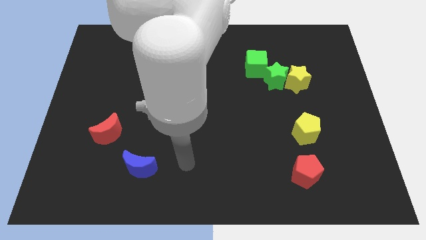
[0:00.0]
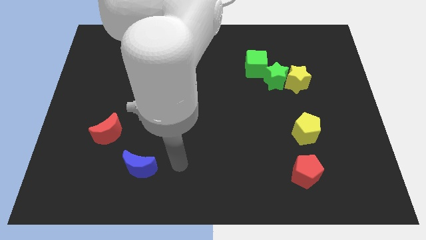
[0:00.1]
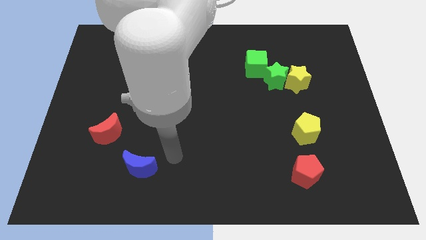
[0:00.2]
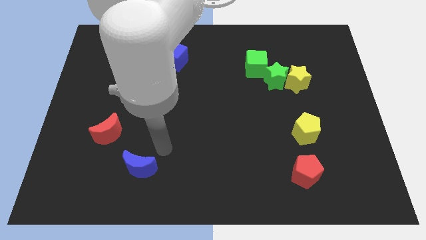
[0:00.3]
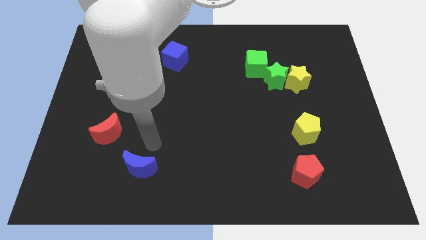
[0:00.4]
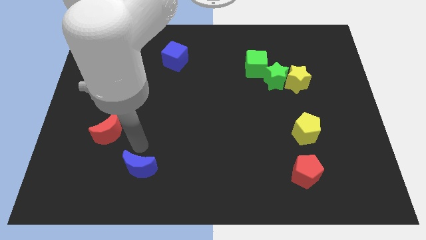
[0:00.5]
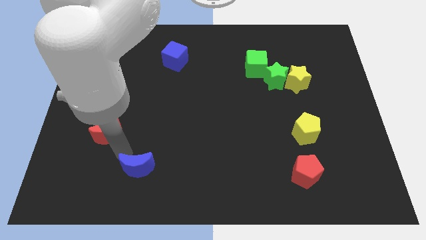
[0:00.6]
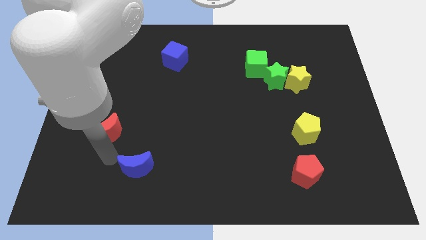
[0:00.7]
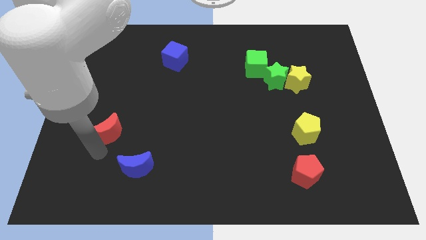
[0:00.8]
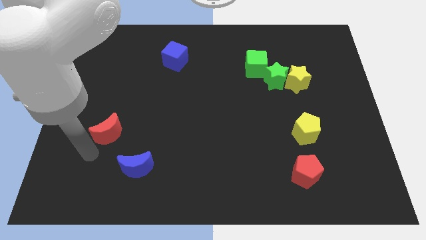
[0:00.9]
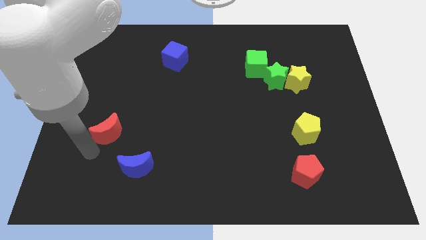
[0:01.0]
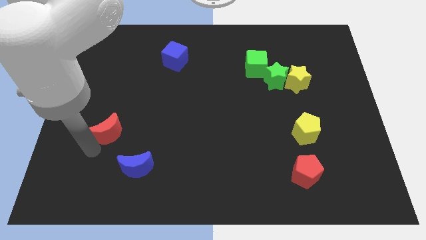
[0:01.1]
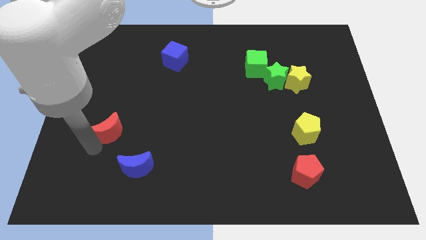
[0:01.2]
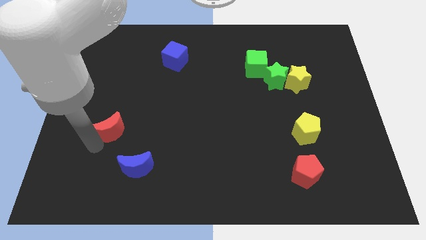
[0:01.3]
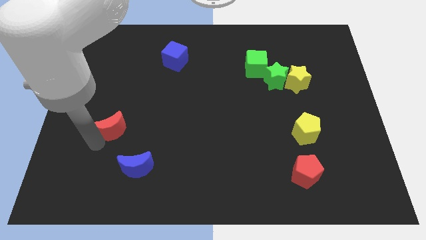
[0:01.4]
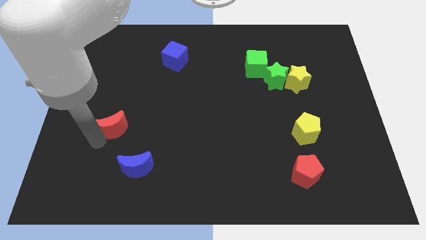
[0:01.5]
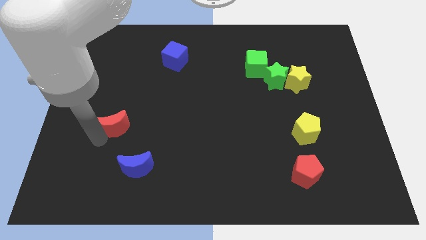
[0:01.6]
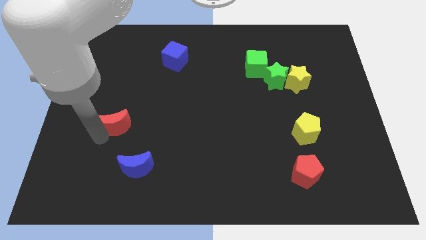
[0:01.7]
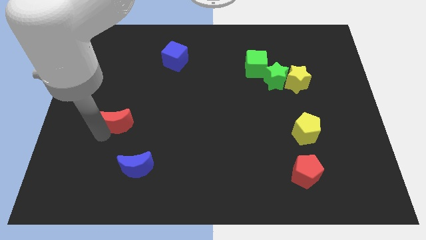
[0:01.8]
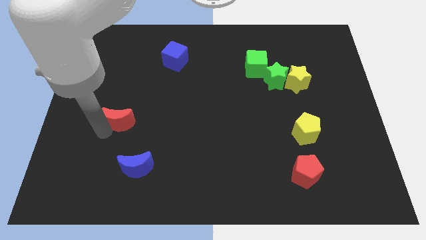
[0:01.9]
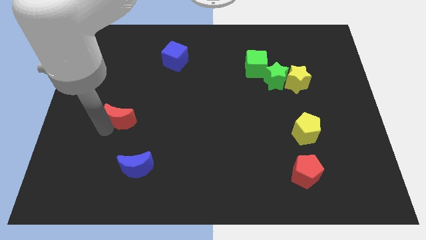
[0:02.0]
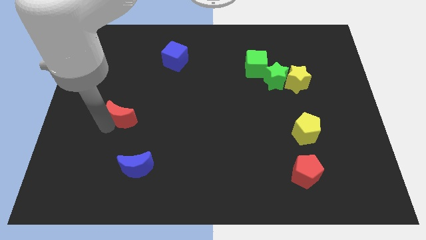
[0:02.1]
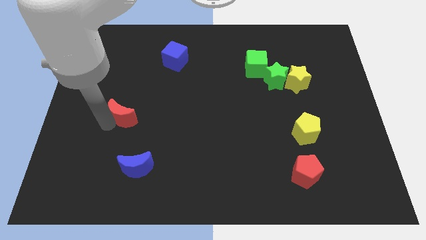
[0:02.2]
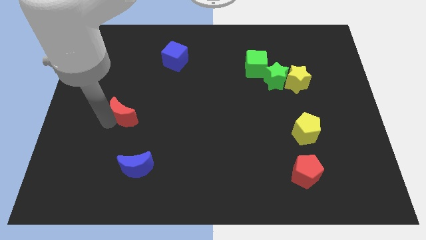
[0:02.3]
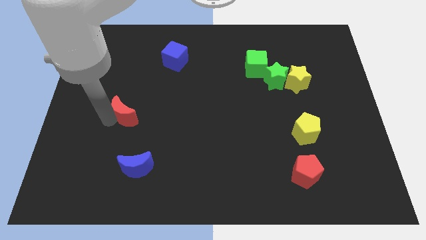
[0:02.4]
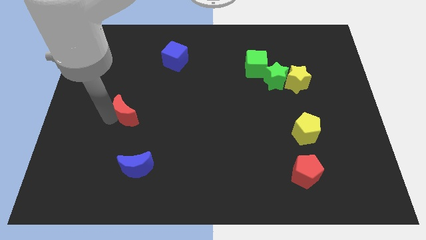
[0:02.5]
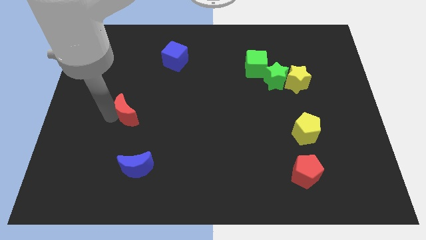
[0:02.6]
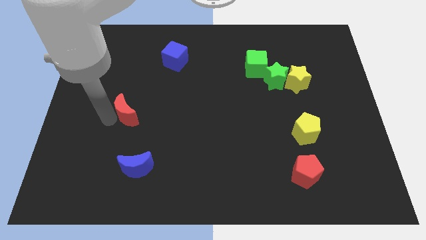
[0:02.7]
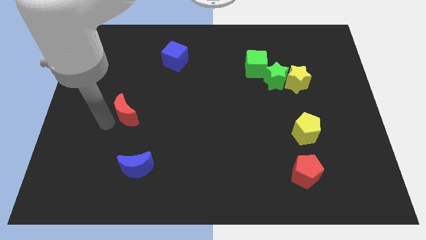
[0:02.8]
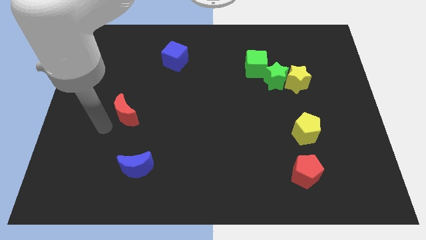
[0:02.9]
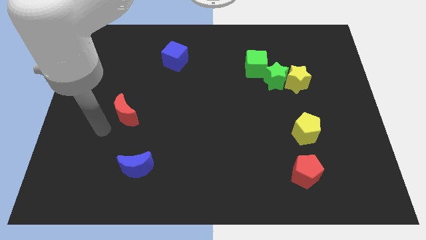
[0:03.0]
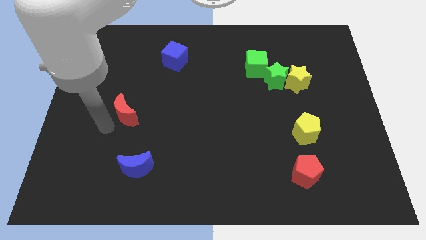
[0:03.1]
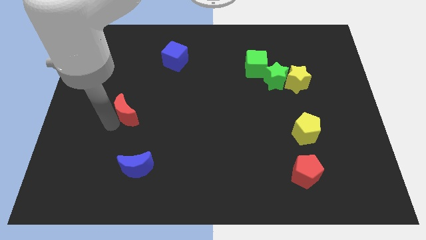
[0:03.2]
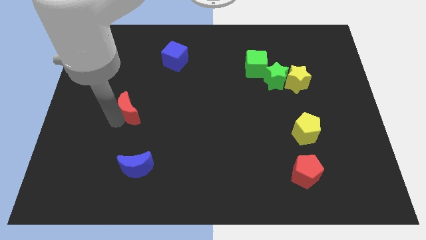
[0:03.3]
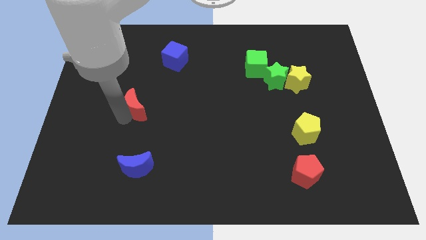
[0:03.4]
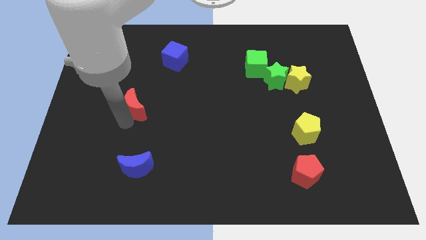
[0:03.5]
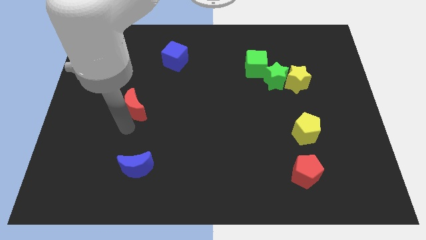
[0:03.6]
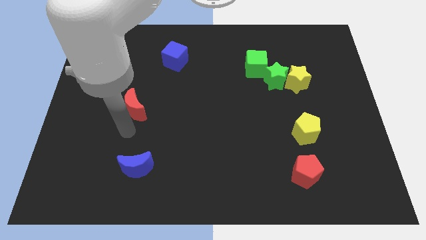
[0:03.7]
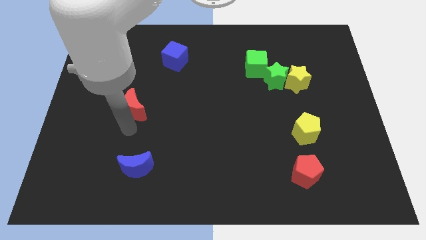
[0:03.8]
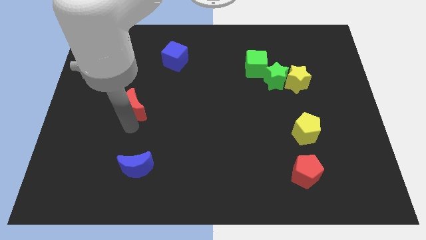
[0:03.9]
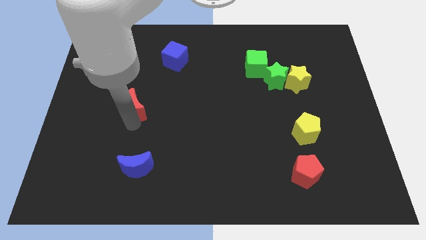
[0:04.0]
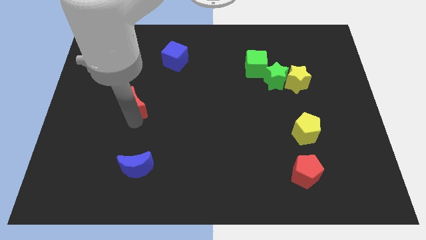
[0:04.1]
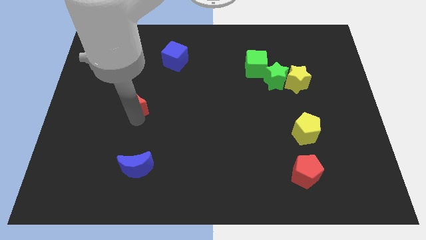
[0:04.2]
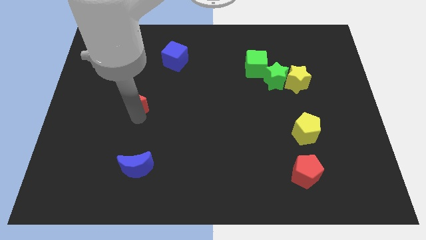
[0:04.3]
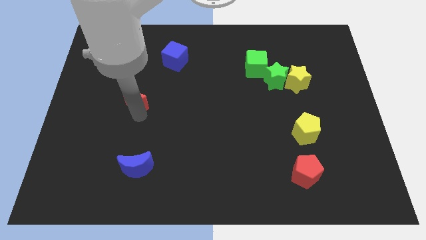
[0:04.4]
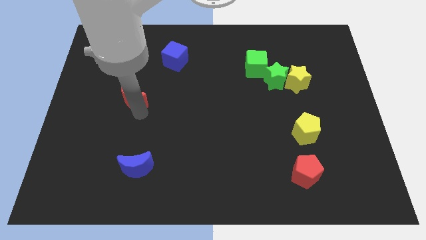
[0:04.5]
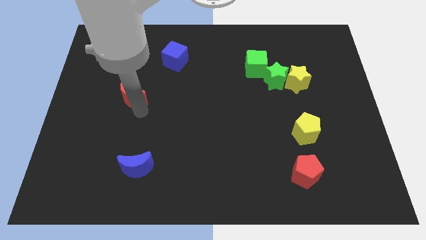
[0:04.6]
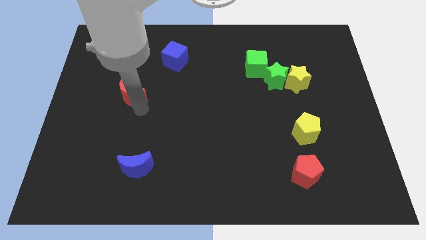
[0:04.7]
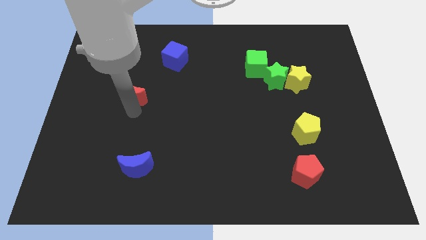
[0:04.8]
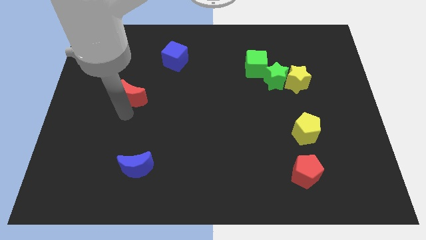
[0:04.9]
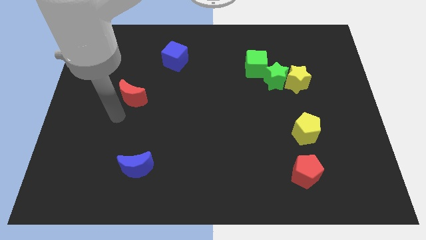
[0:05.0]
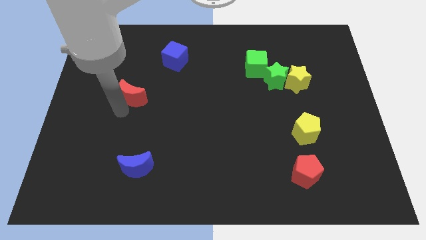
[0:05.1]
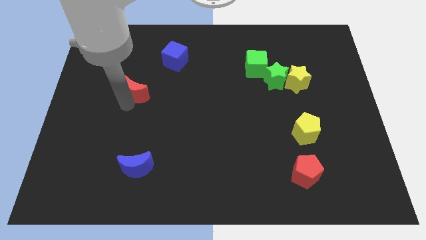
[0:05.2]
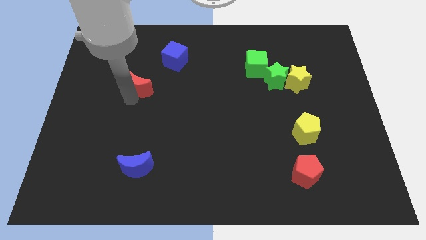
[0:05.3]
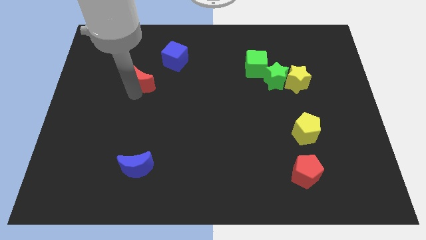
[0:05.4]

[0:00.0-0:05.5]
slide the red moon to the bottom left of the blue cube

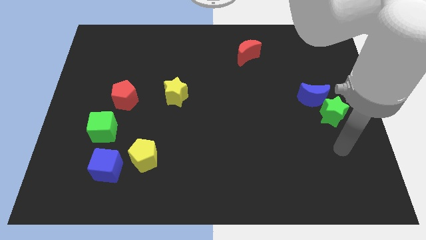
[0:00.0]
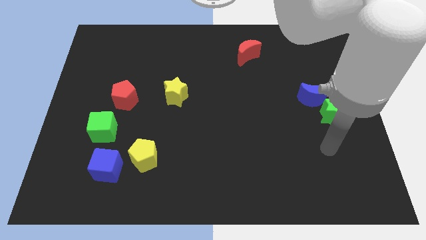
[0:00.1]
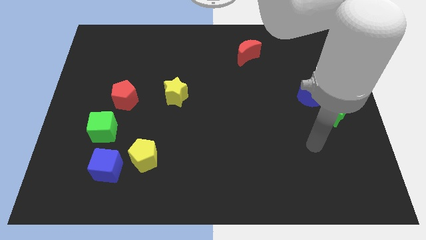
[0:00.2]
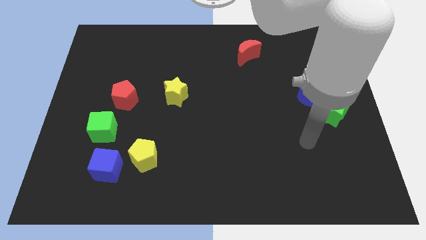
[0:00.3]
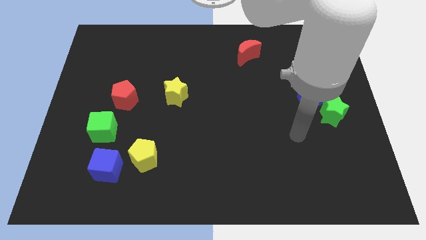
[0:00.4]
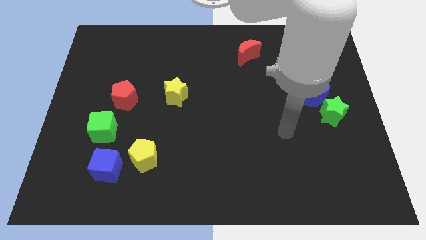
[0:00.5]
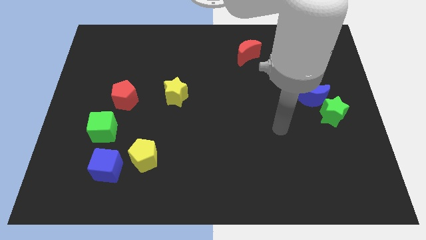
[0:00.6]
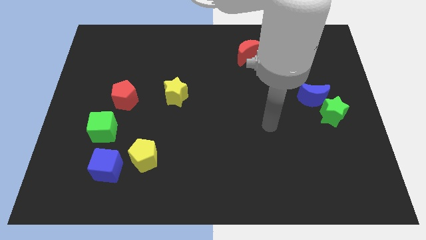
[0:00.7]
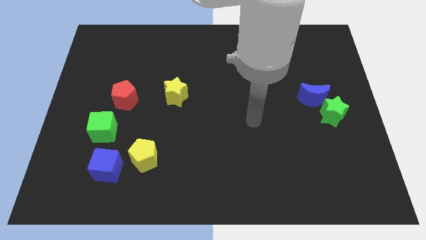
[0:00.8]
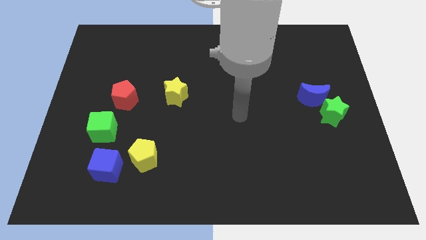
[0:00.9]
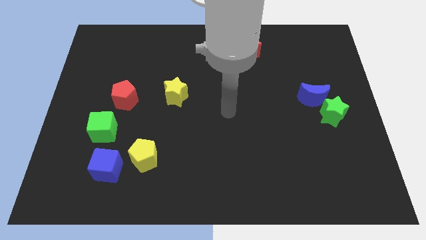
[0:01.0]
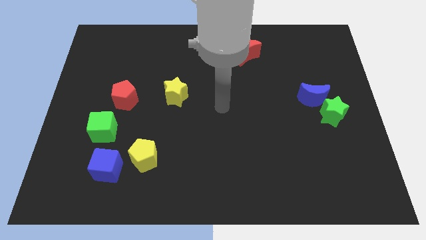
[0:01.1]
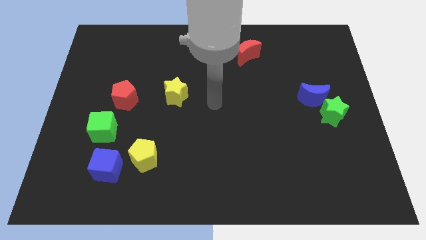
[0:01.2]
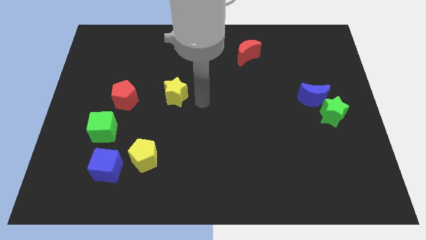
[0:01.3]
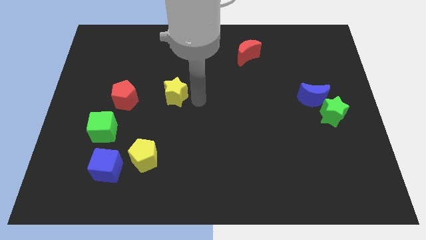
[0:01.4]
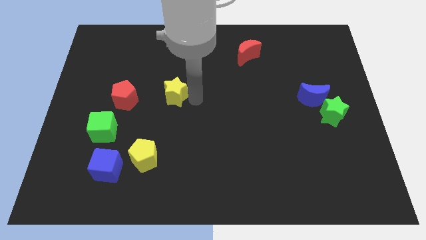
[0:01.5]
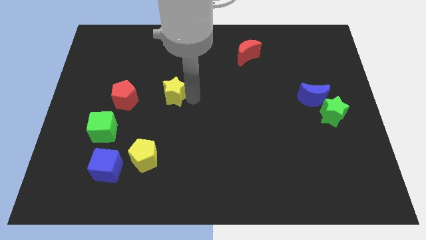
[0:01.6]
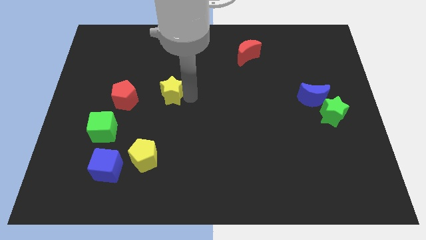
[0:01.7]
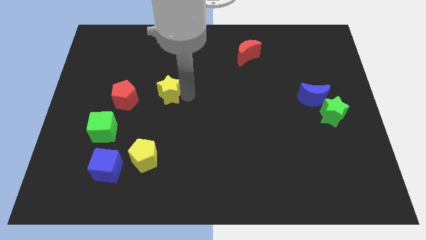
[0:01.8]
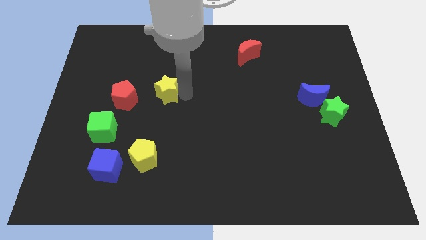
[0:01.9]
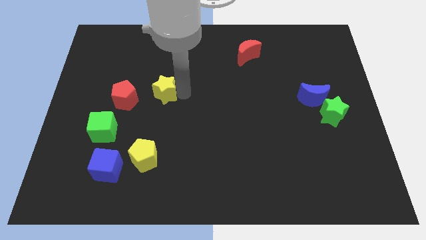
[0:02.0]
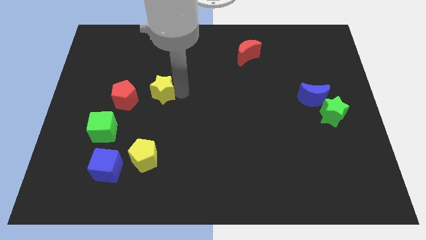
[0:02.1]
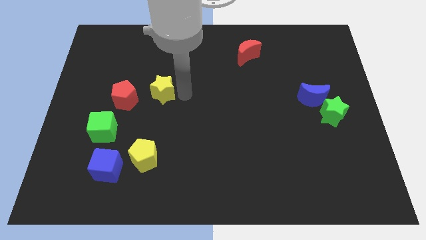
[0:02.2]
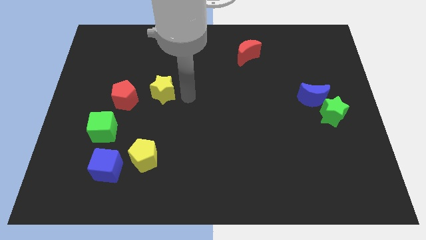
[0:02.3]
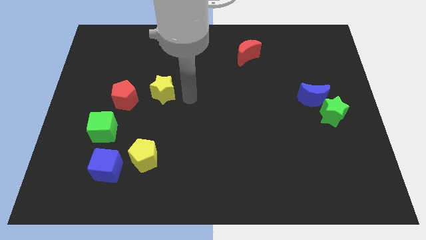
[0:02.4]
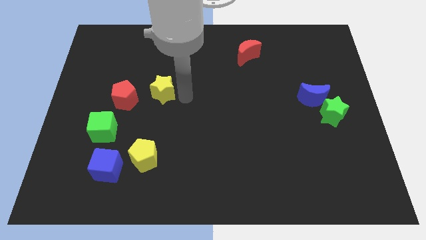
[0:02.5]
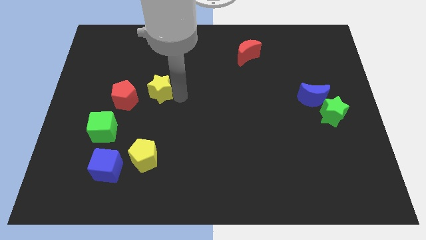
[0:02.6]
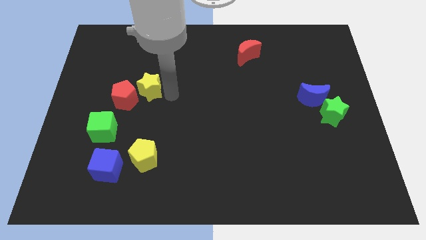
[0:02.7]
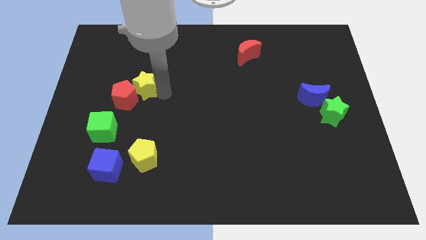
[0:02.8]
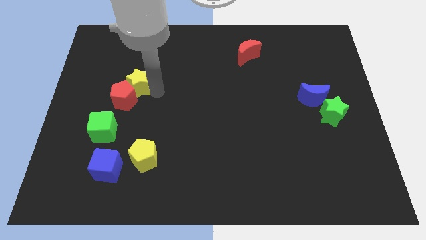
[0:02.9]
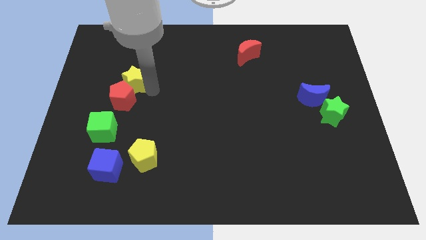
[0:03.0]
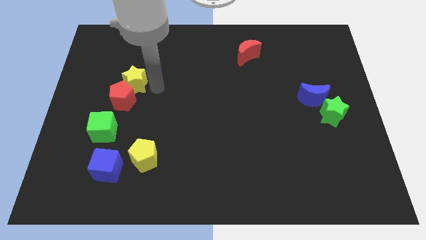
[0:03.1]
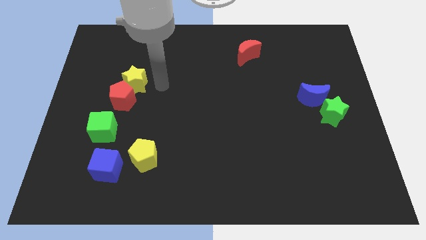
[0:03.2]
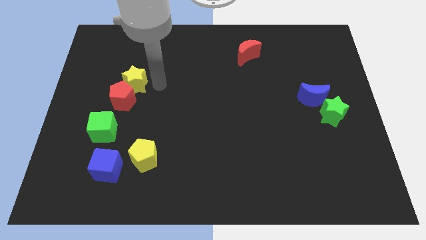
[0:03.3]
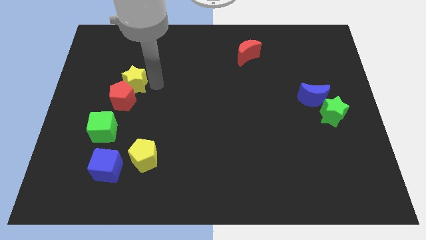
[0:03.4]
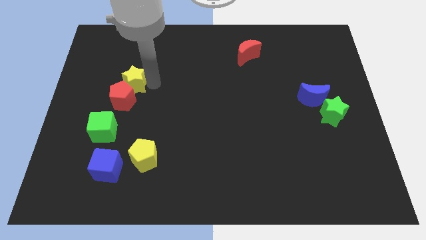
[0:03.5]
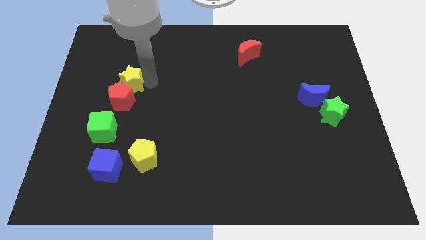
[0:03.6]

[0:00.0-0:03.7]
put the yellow star diagonally up and to the left of the red pentagon
